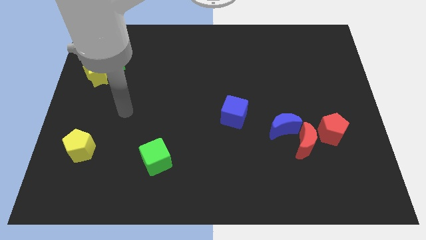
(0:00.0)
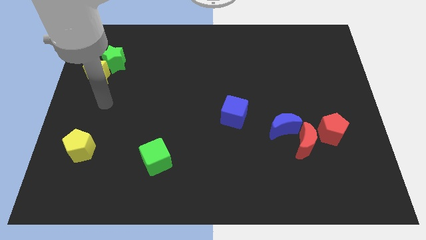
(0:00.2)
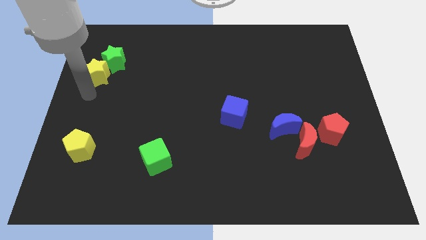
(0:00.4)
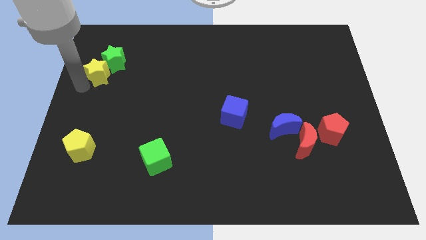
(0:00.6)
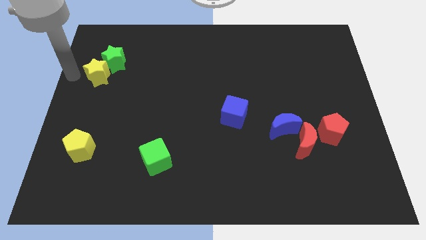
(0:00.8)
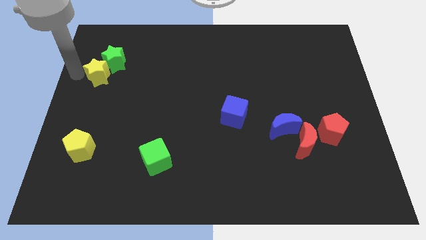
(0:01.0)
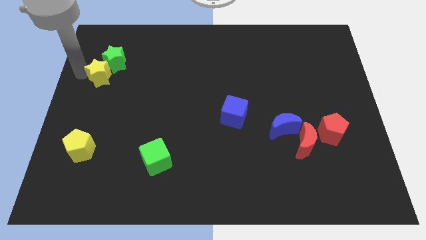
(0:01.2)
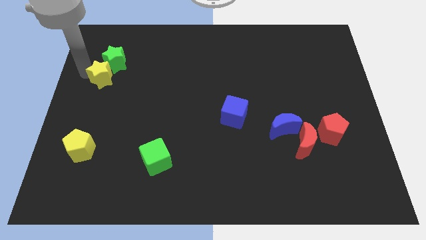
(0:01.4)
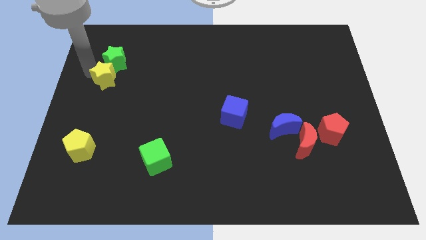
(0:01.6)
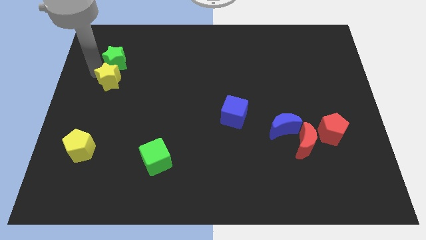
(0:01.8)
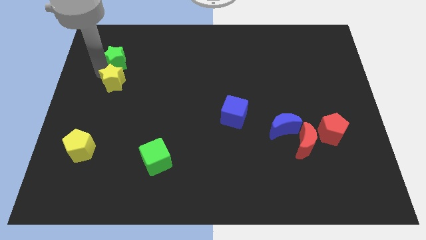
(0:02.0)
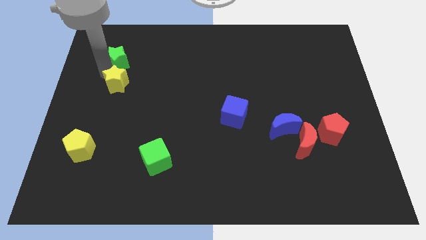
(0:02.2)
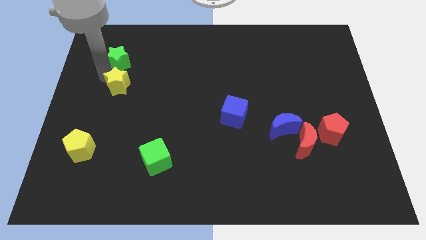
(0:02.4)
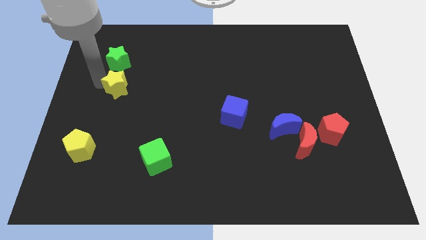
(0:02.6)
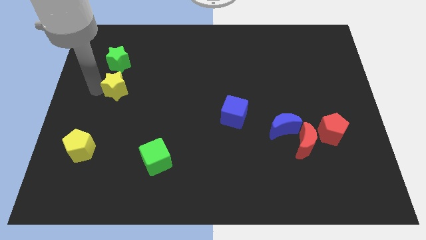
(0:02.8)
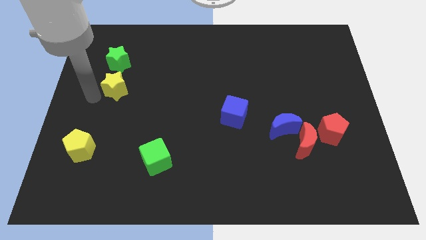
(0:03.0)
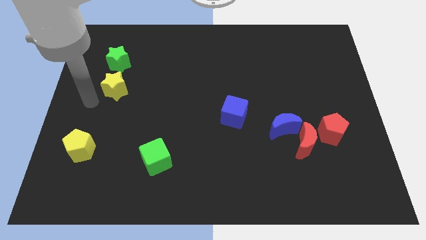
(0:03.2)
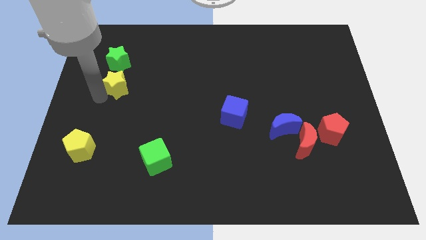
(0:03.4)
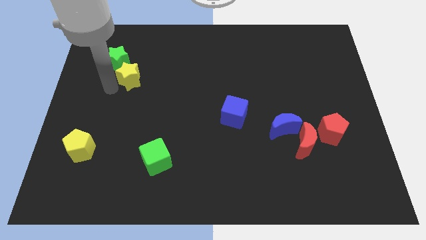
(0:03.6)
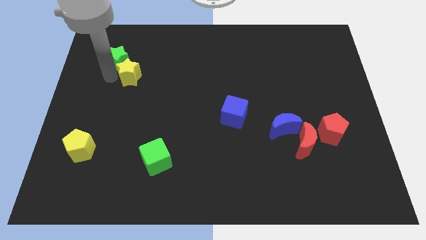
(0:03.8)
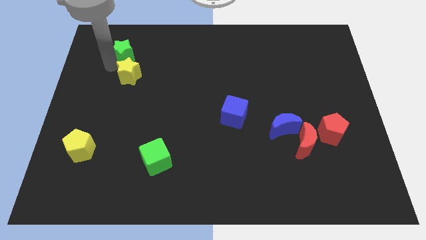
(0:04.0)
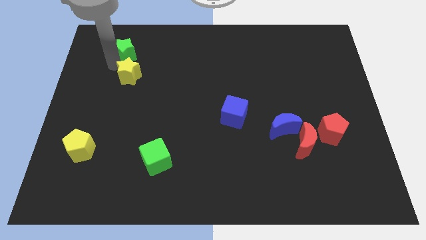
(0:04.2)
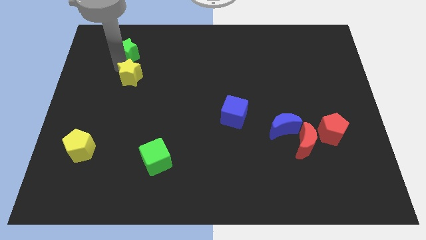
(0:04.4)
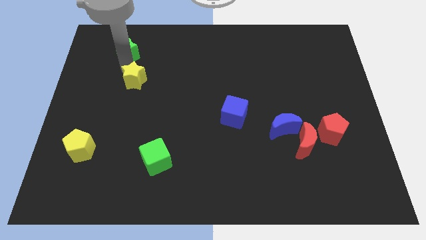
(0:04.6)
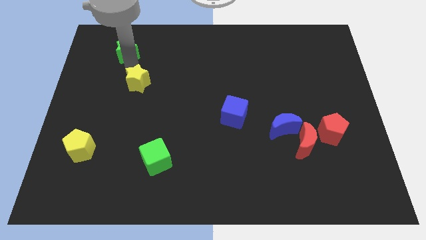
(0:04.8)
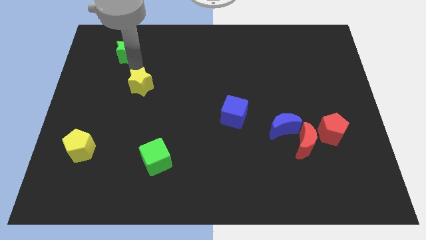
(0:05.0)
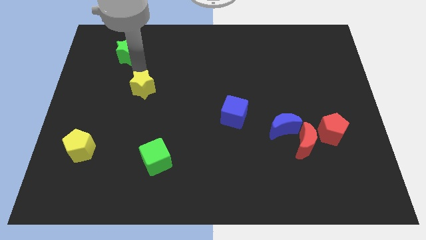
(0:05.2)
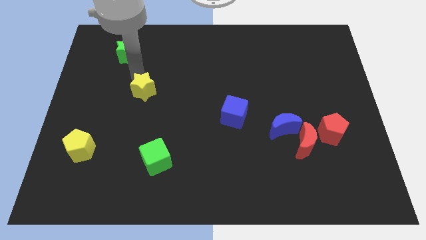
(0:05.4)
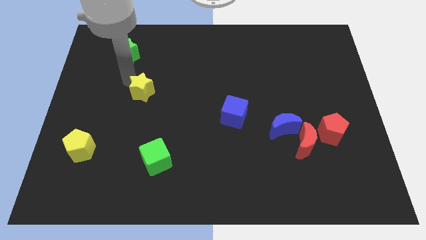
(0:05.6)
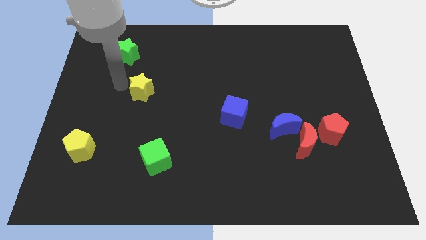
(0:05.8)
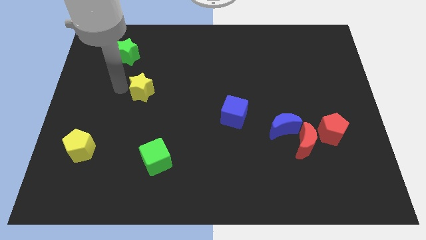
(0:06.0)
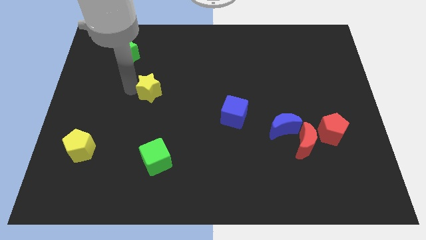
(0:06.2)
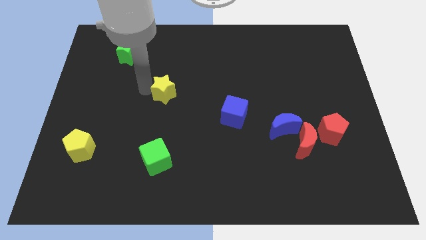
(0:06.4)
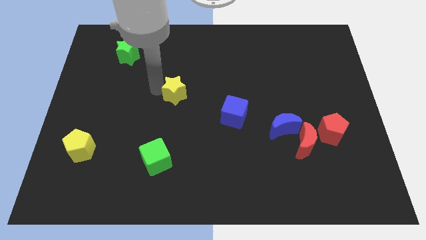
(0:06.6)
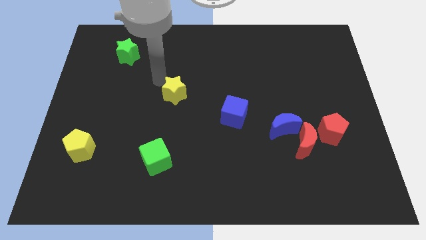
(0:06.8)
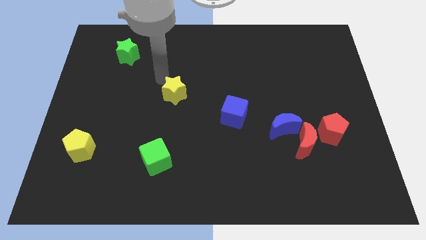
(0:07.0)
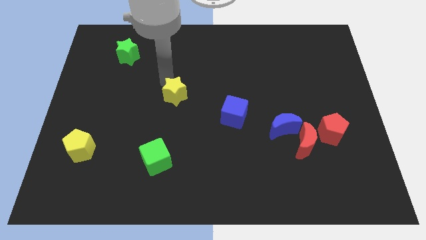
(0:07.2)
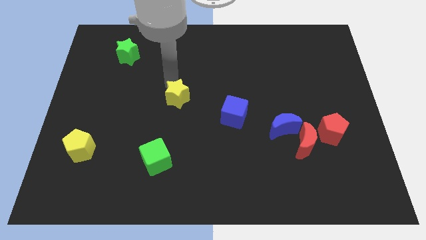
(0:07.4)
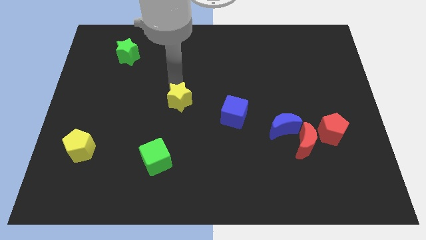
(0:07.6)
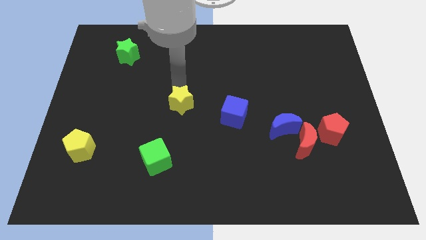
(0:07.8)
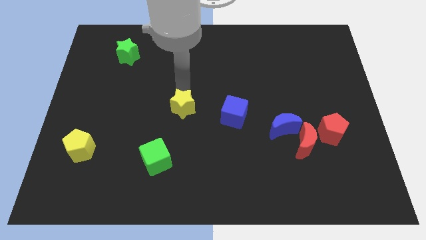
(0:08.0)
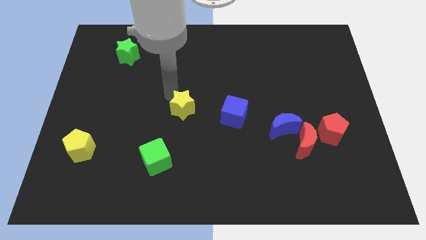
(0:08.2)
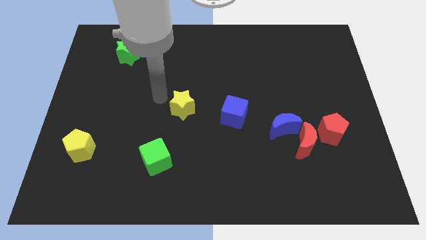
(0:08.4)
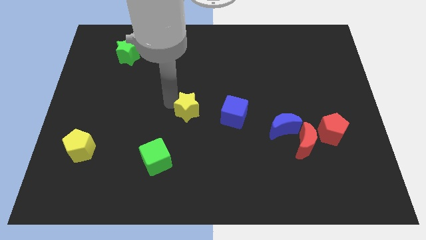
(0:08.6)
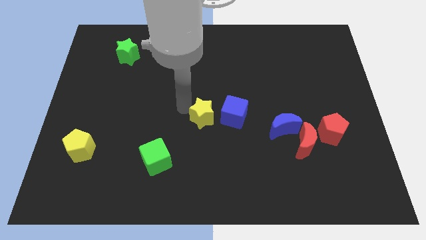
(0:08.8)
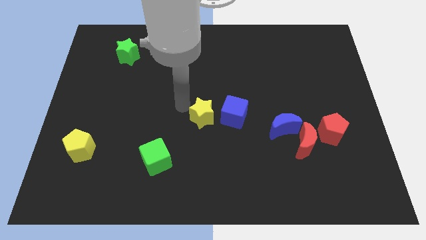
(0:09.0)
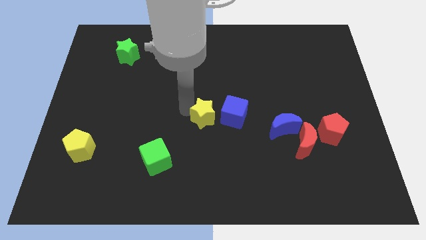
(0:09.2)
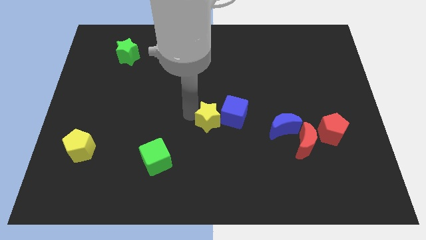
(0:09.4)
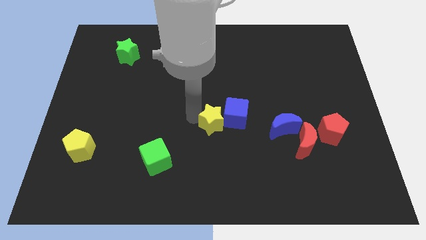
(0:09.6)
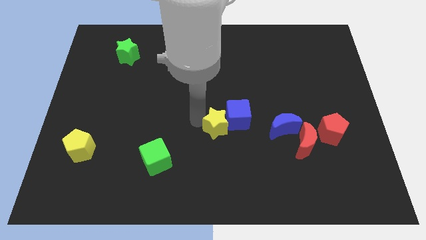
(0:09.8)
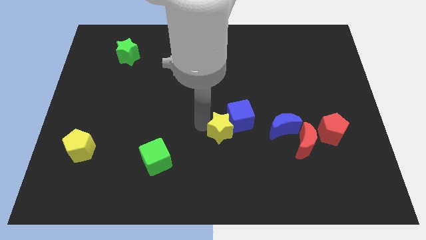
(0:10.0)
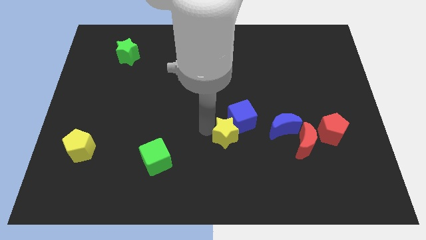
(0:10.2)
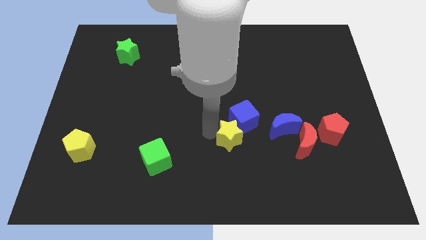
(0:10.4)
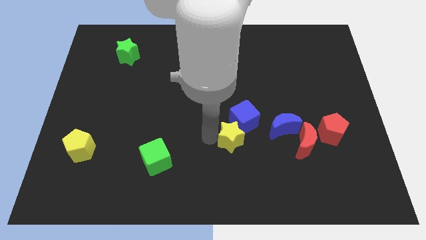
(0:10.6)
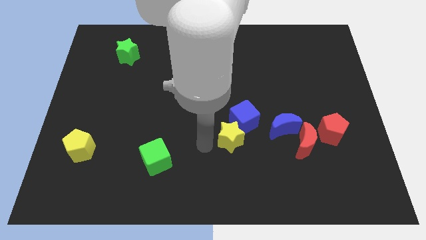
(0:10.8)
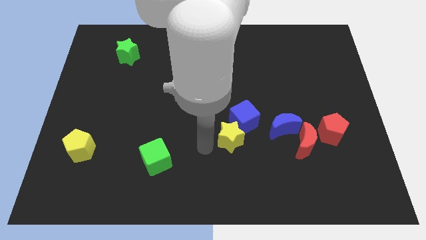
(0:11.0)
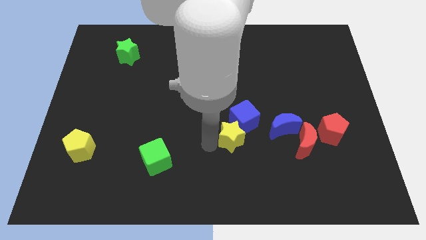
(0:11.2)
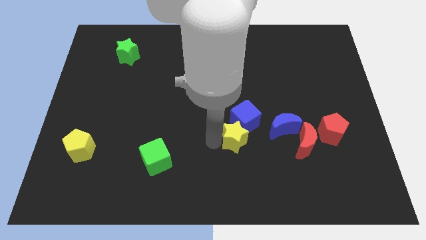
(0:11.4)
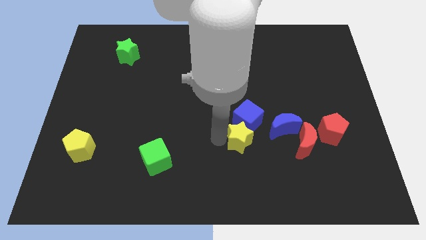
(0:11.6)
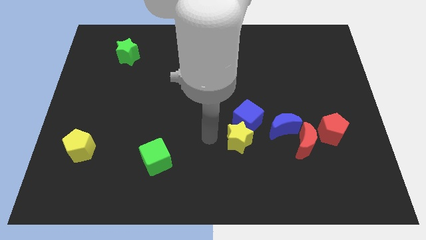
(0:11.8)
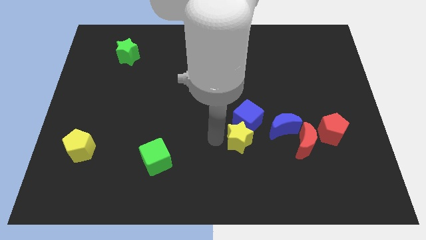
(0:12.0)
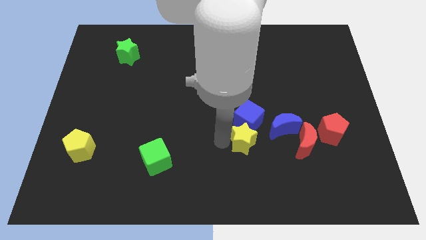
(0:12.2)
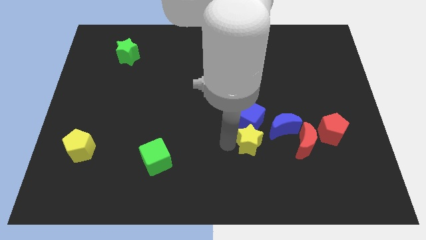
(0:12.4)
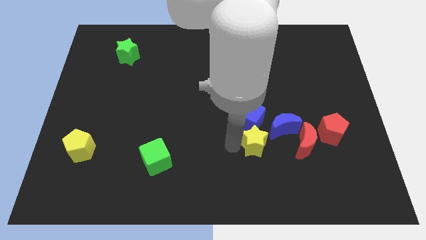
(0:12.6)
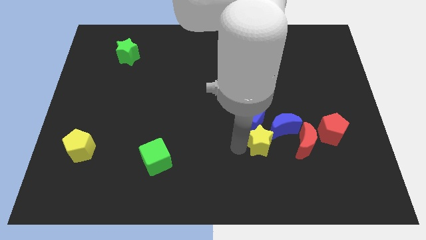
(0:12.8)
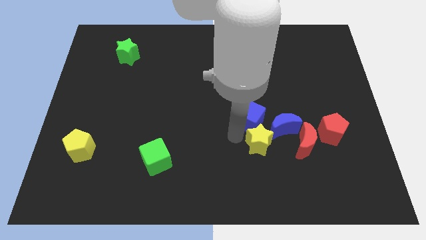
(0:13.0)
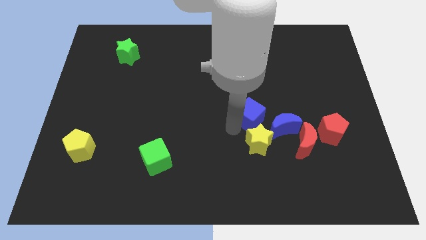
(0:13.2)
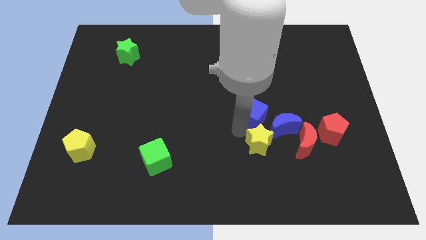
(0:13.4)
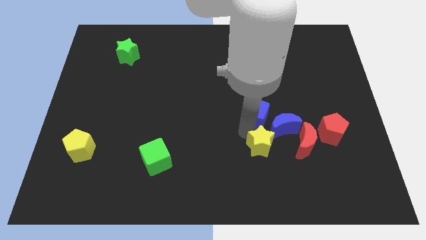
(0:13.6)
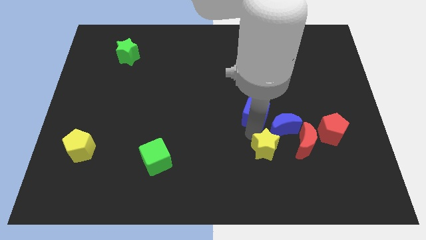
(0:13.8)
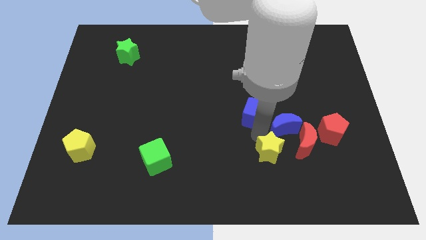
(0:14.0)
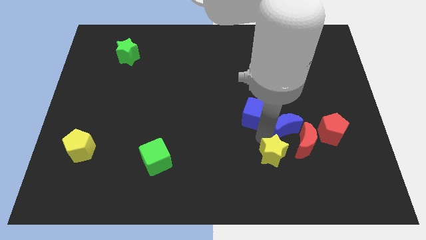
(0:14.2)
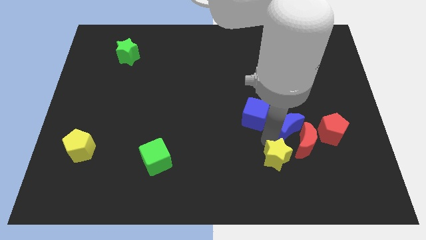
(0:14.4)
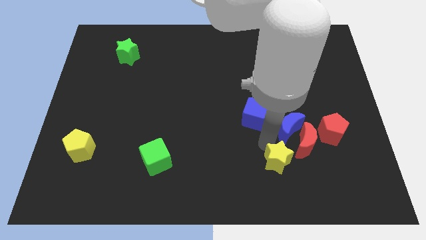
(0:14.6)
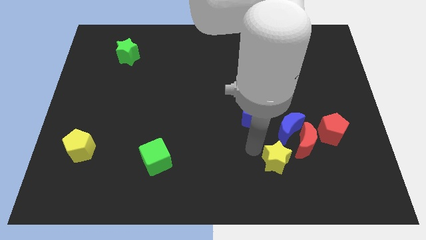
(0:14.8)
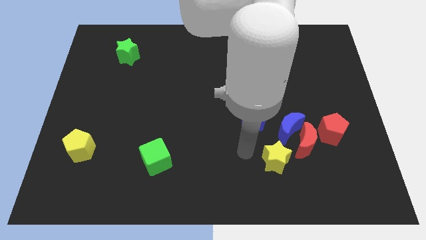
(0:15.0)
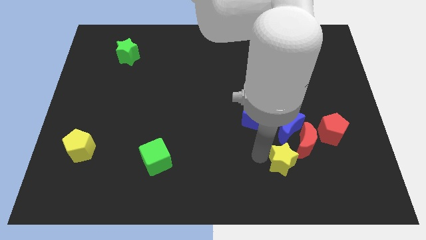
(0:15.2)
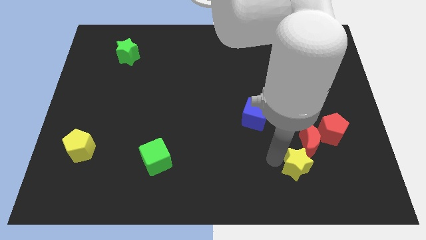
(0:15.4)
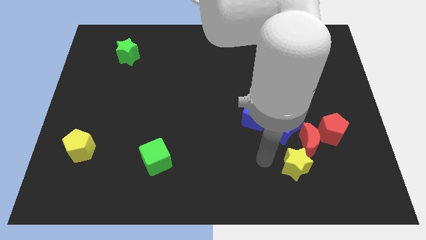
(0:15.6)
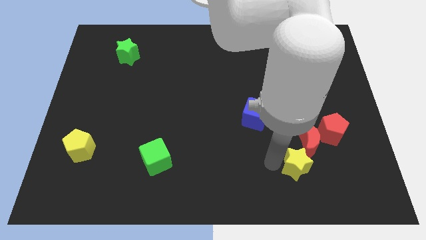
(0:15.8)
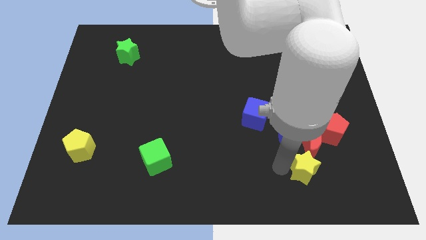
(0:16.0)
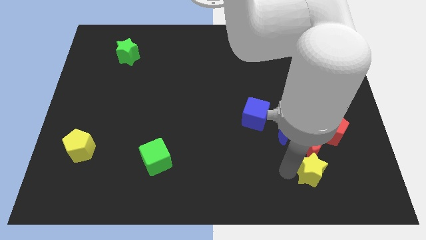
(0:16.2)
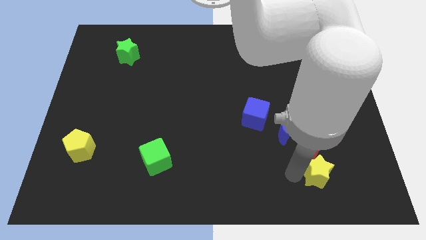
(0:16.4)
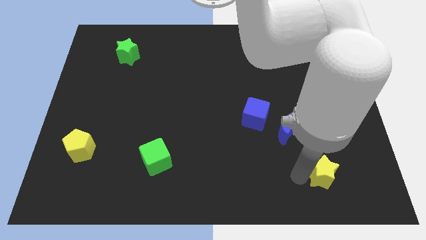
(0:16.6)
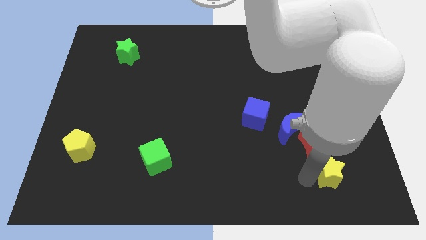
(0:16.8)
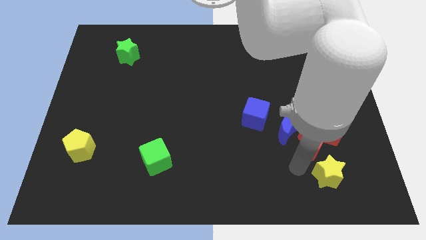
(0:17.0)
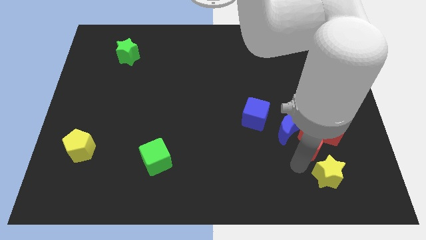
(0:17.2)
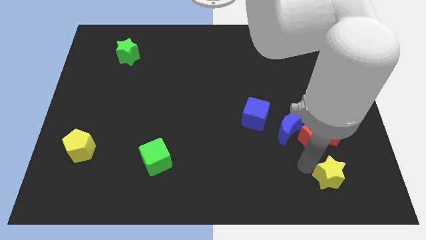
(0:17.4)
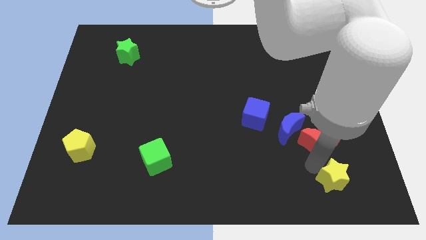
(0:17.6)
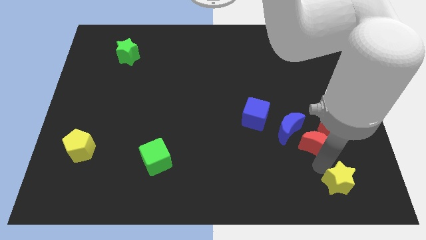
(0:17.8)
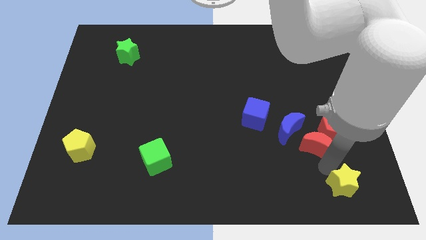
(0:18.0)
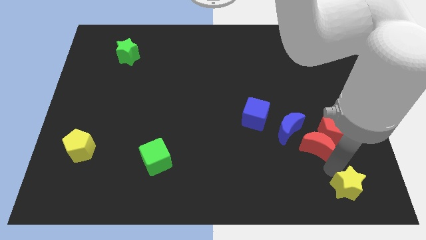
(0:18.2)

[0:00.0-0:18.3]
slide the yellow star to the bottom right of the board
